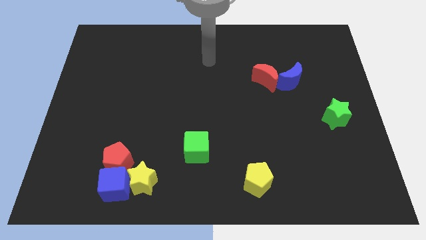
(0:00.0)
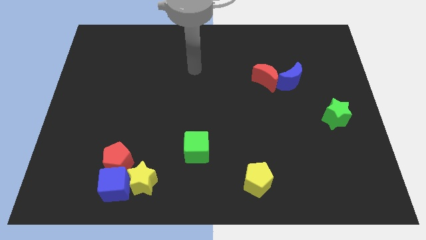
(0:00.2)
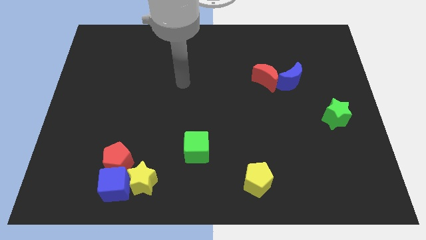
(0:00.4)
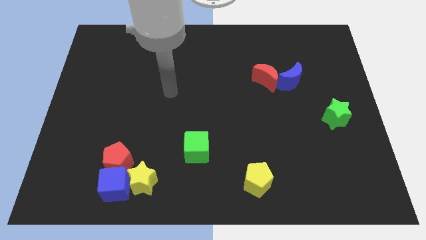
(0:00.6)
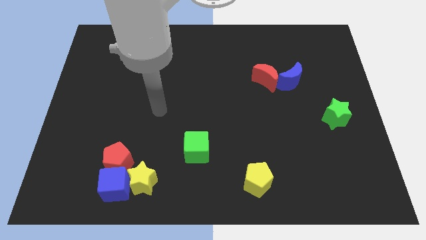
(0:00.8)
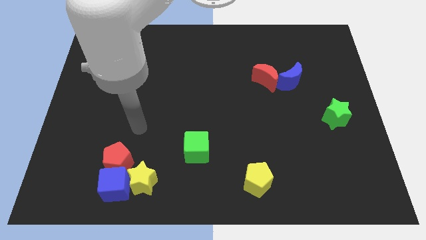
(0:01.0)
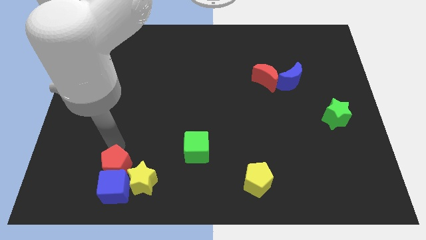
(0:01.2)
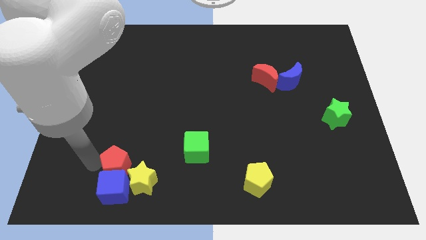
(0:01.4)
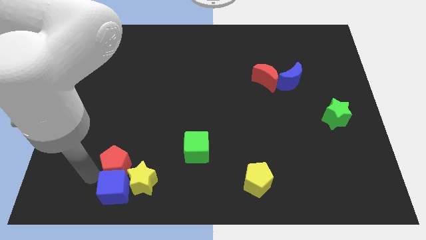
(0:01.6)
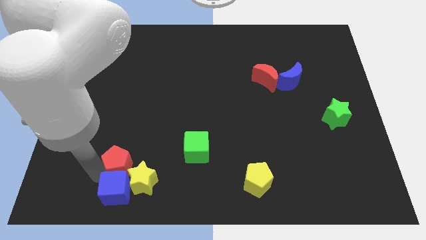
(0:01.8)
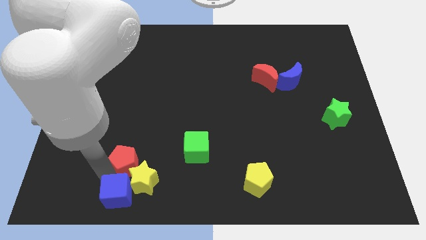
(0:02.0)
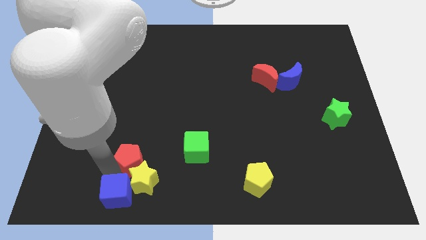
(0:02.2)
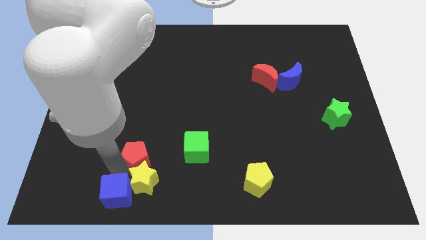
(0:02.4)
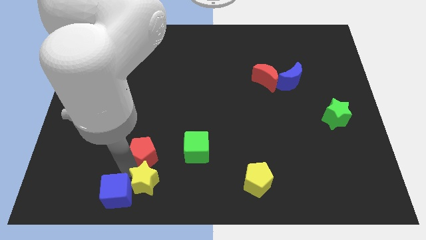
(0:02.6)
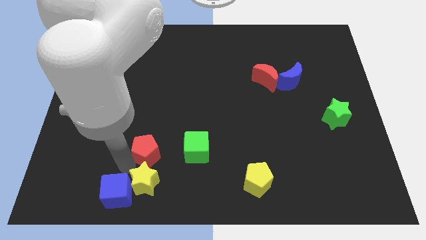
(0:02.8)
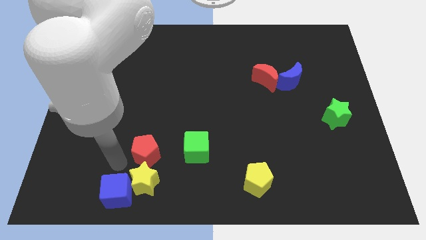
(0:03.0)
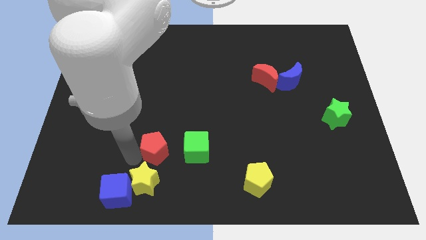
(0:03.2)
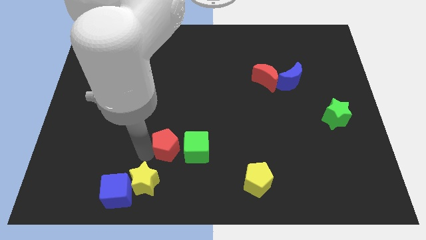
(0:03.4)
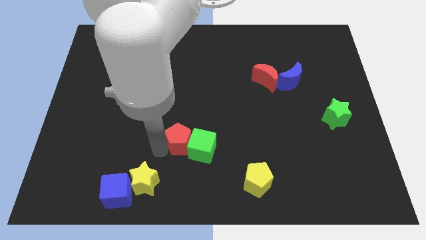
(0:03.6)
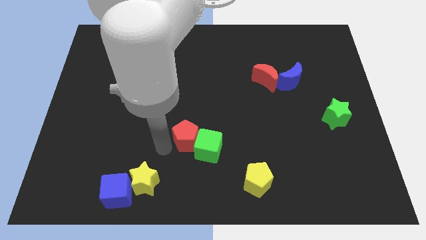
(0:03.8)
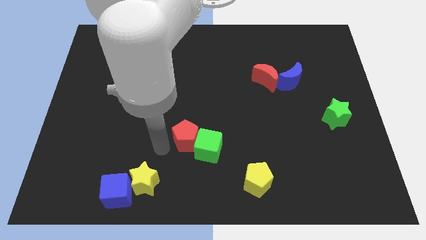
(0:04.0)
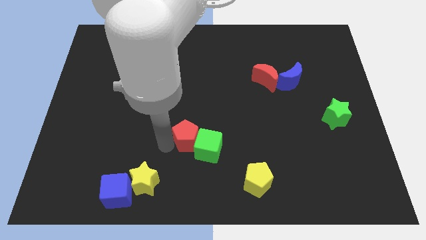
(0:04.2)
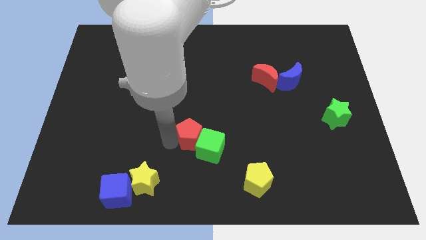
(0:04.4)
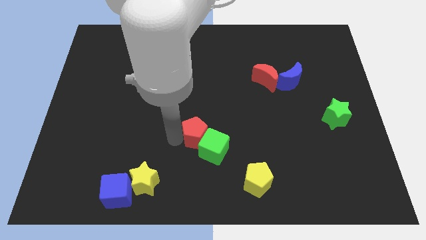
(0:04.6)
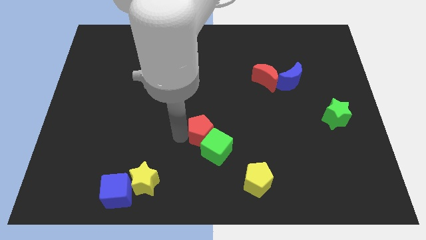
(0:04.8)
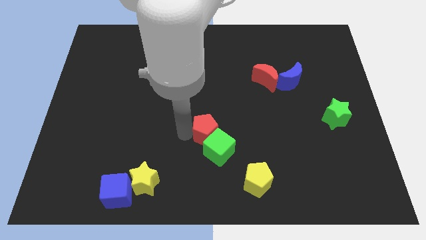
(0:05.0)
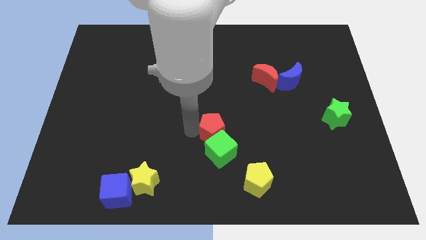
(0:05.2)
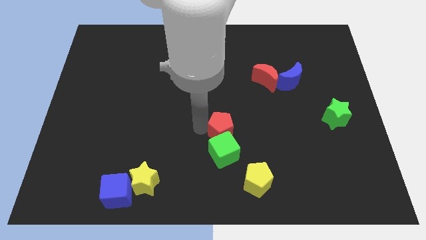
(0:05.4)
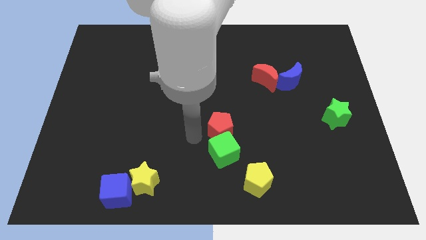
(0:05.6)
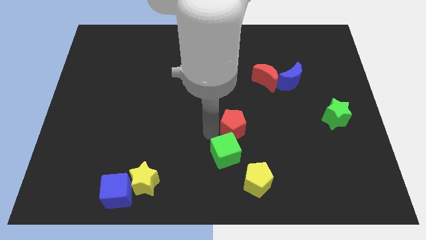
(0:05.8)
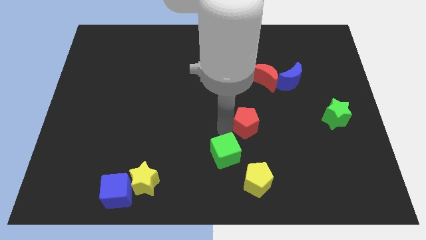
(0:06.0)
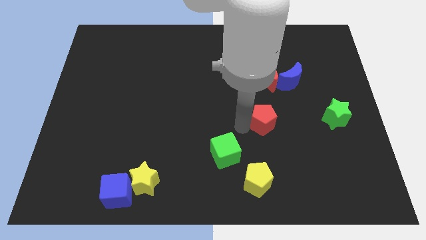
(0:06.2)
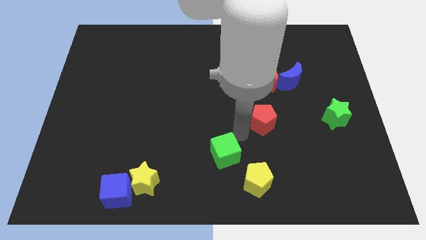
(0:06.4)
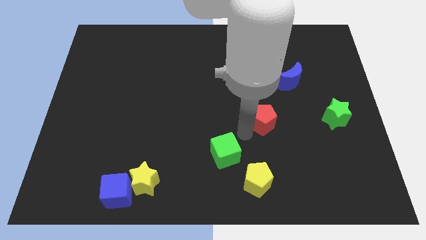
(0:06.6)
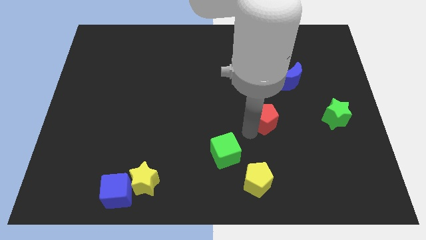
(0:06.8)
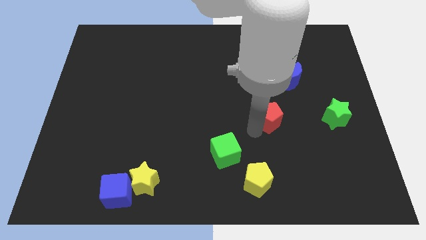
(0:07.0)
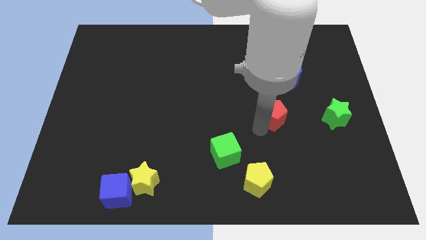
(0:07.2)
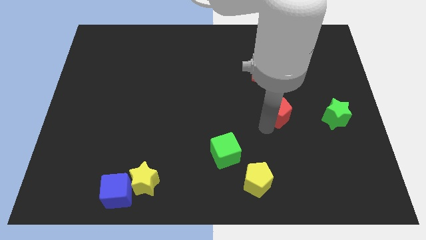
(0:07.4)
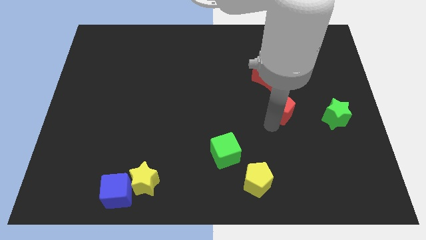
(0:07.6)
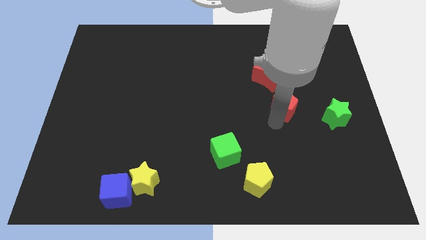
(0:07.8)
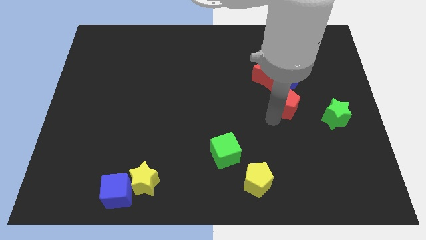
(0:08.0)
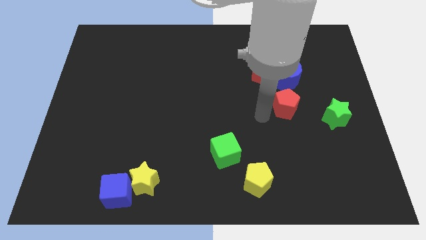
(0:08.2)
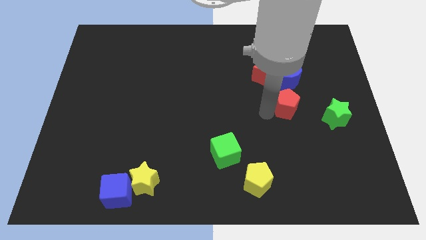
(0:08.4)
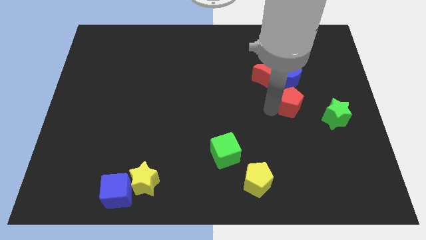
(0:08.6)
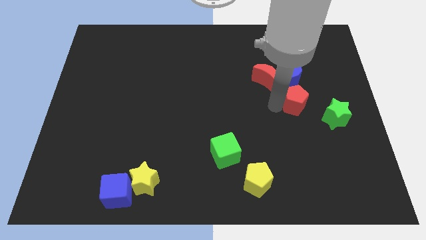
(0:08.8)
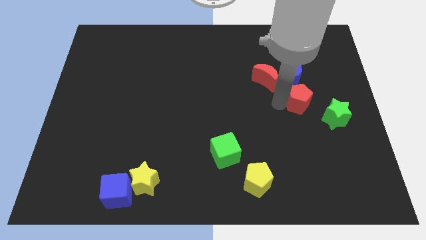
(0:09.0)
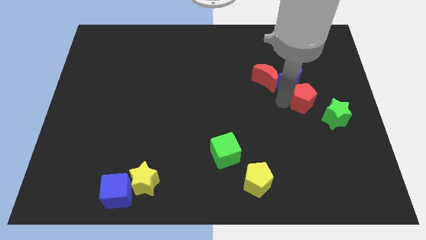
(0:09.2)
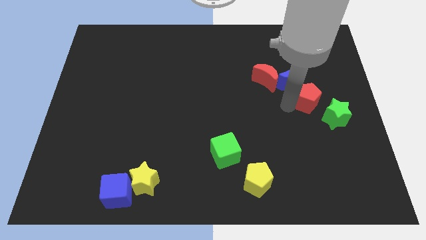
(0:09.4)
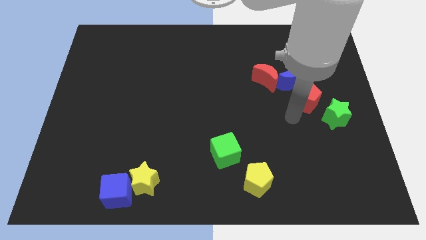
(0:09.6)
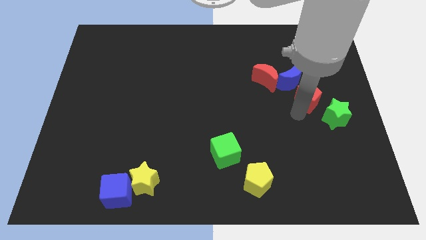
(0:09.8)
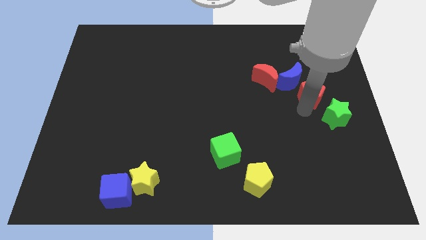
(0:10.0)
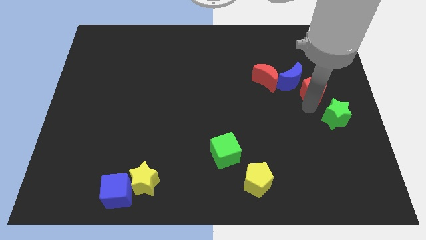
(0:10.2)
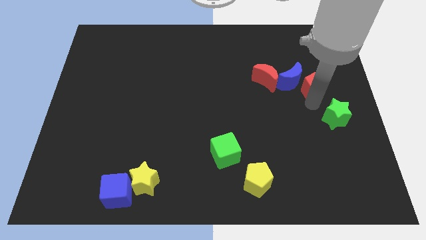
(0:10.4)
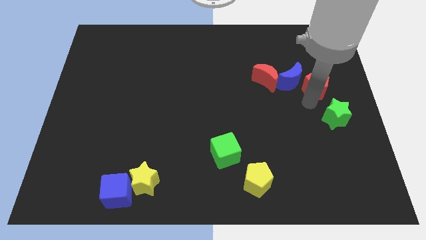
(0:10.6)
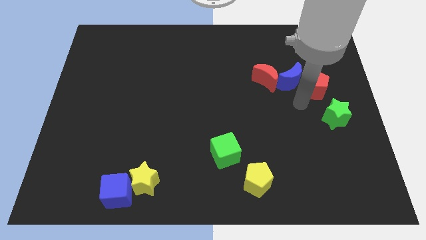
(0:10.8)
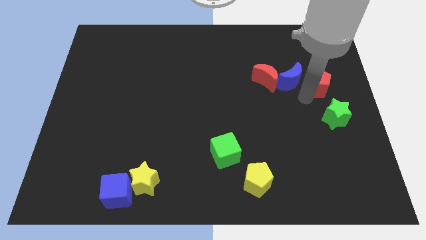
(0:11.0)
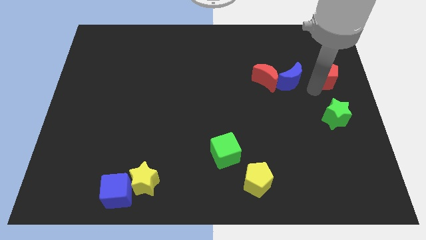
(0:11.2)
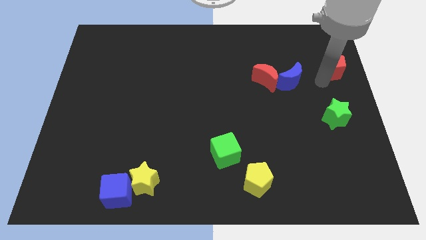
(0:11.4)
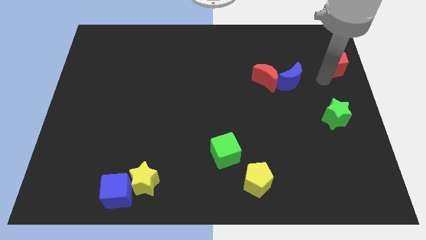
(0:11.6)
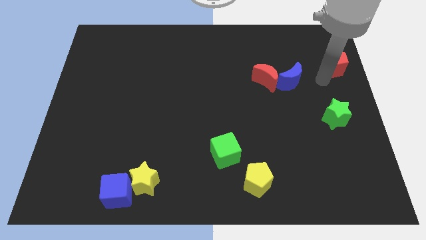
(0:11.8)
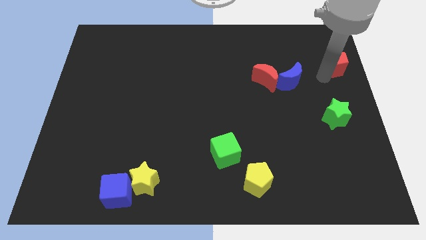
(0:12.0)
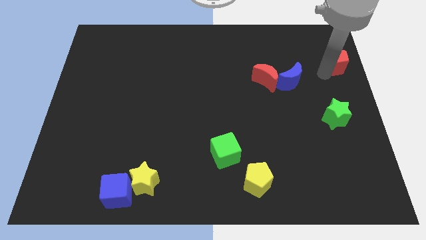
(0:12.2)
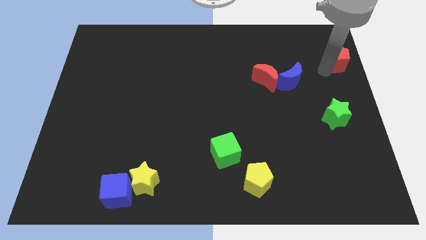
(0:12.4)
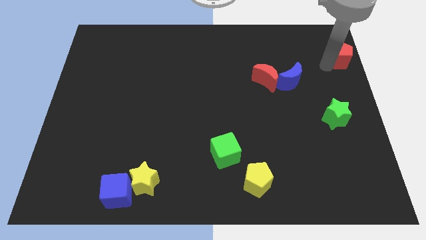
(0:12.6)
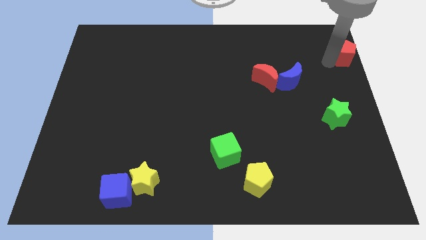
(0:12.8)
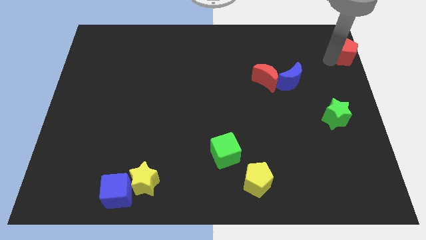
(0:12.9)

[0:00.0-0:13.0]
move the red pentagon to the upper right corner

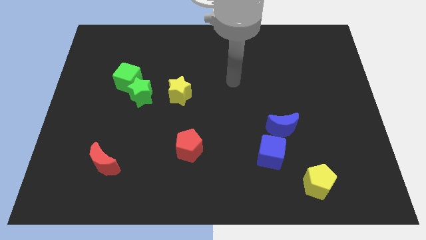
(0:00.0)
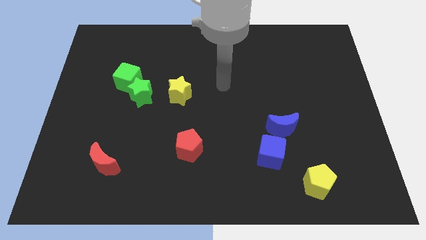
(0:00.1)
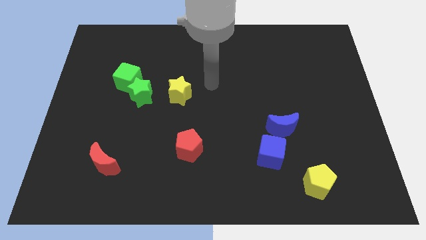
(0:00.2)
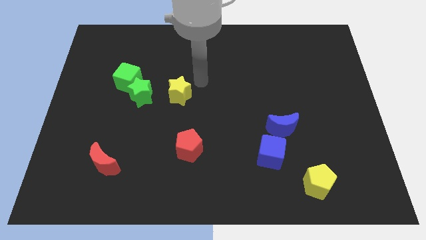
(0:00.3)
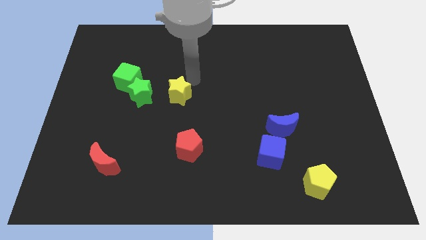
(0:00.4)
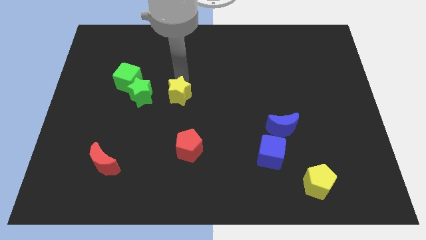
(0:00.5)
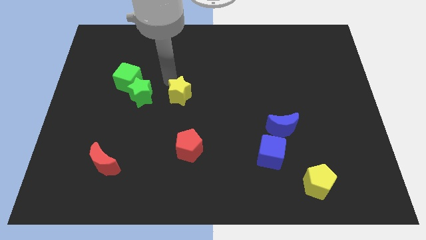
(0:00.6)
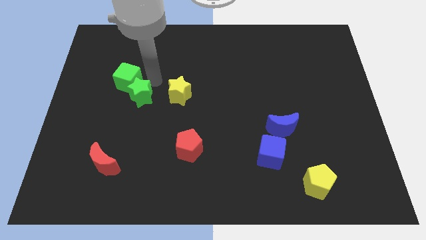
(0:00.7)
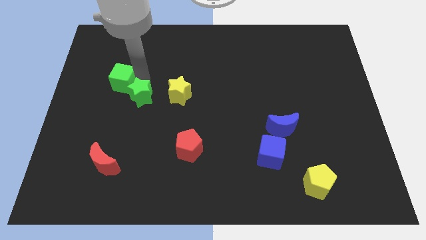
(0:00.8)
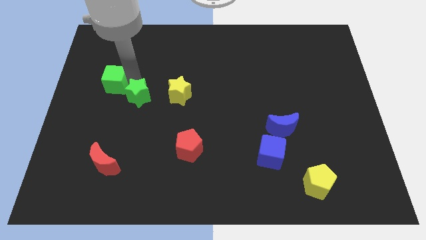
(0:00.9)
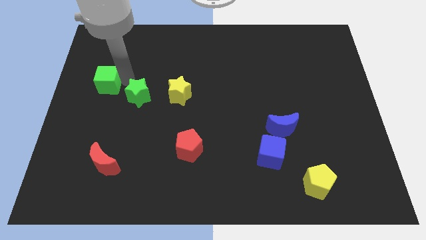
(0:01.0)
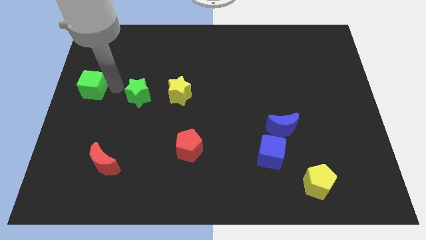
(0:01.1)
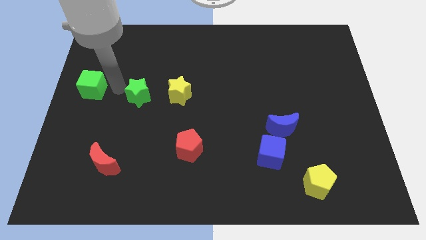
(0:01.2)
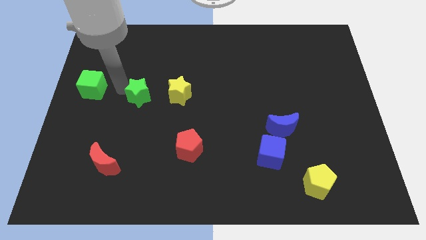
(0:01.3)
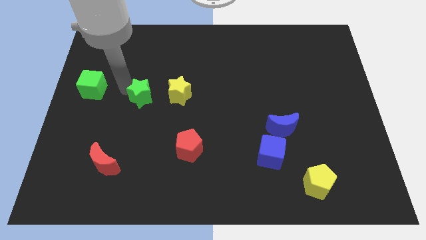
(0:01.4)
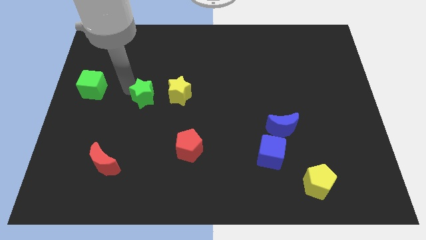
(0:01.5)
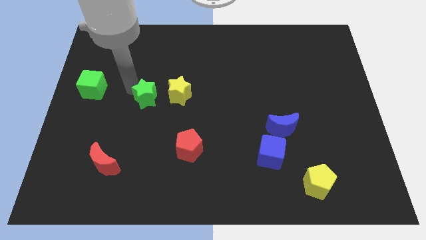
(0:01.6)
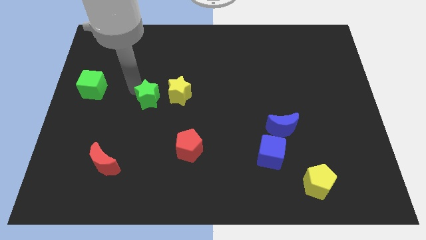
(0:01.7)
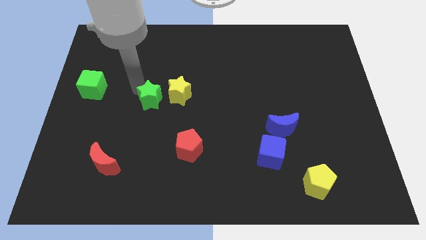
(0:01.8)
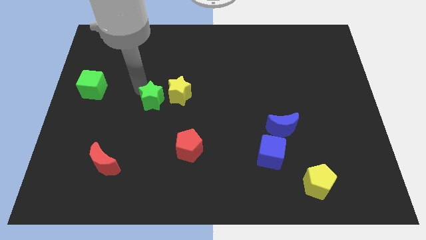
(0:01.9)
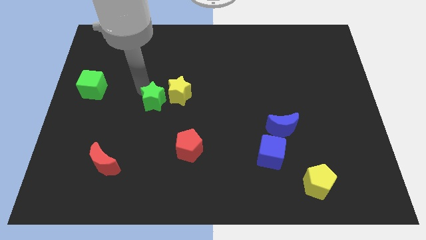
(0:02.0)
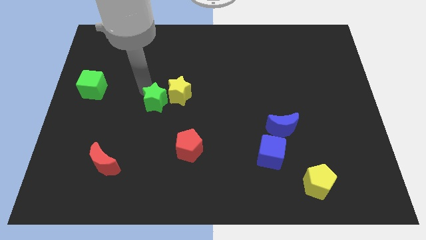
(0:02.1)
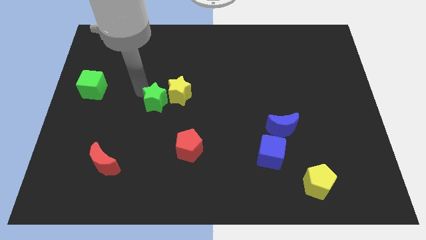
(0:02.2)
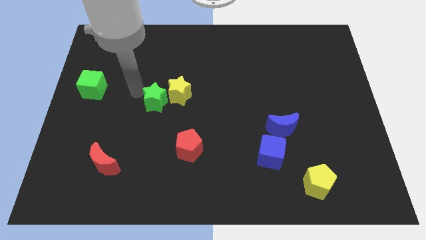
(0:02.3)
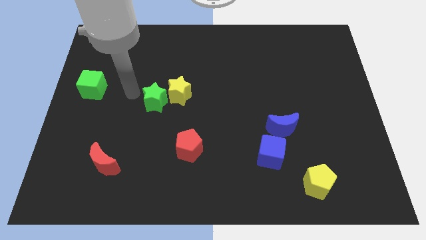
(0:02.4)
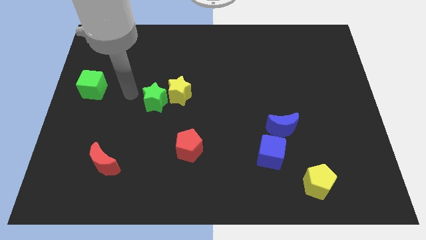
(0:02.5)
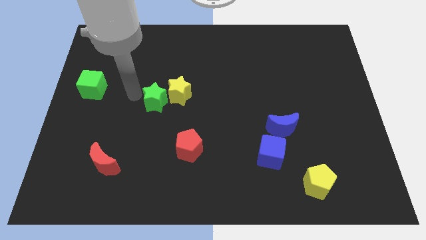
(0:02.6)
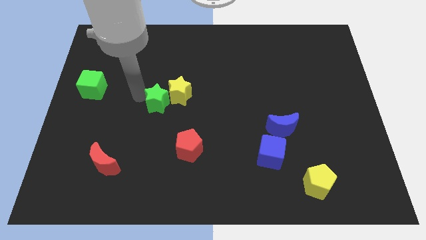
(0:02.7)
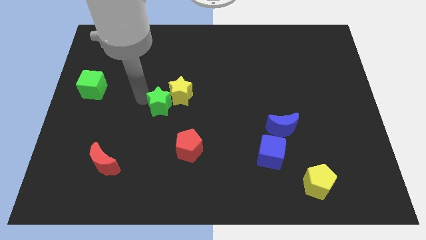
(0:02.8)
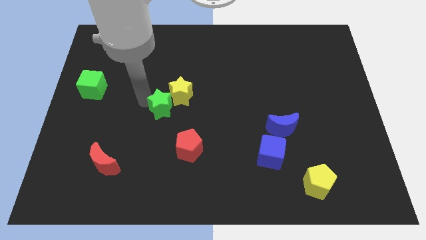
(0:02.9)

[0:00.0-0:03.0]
move the green star to the center
